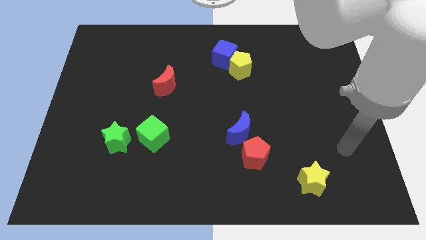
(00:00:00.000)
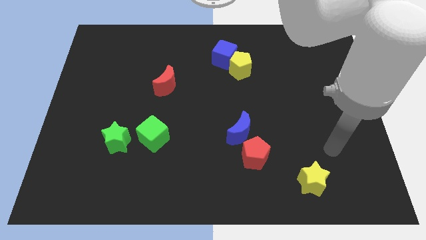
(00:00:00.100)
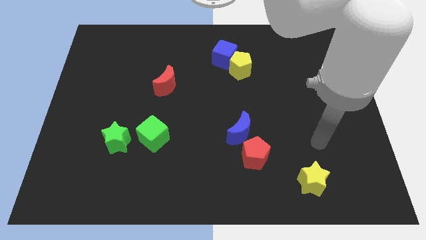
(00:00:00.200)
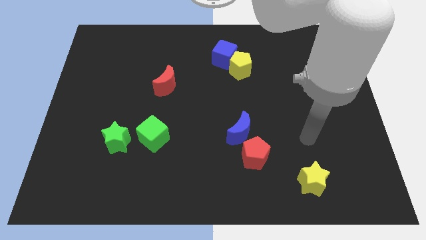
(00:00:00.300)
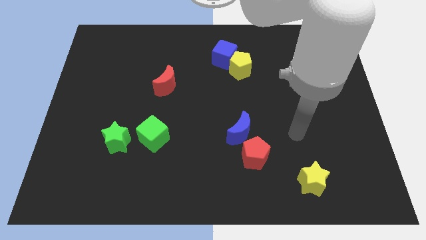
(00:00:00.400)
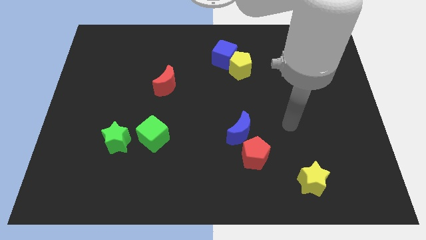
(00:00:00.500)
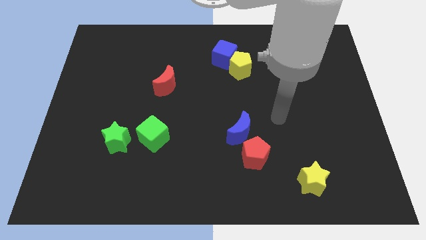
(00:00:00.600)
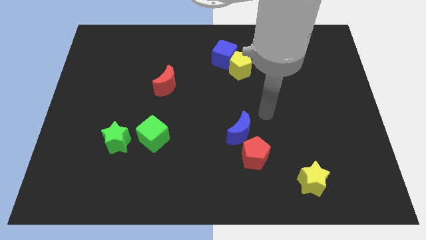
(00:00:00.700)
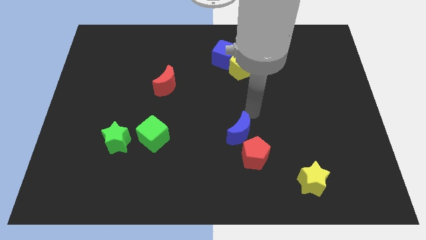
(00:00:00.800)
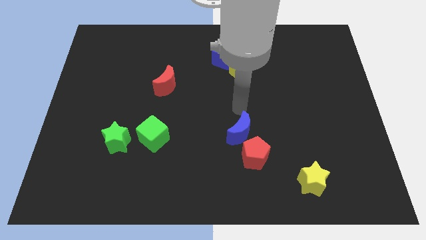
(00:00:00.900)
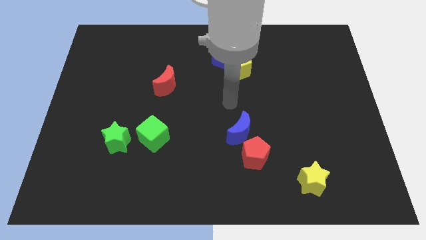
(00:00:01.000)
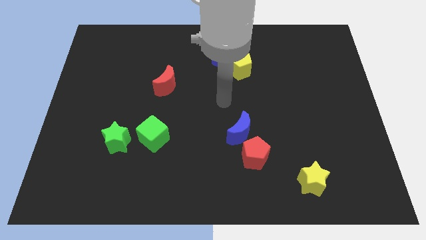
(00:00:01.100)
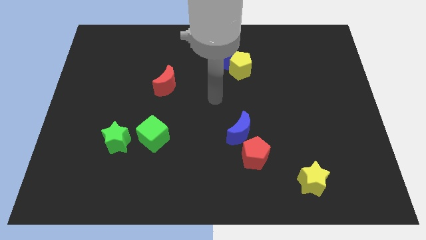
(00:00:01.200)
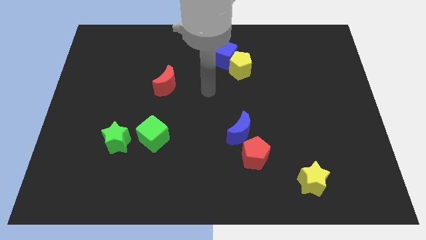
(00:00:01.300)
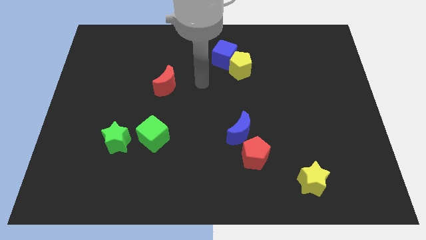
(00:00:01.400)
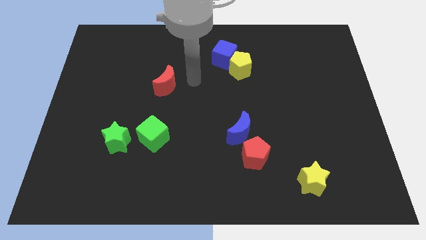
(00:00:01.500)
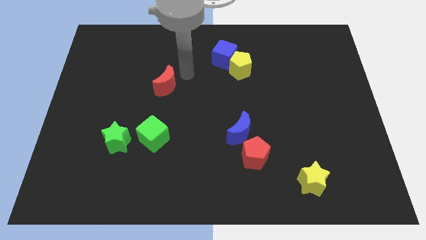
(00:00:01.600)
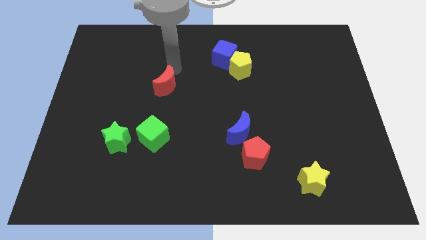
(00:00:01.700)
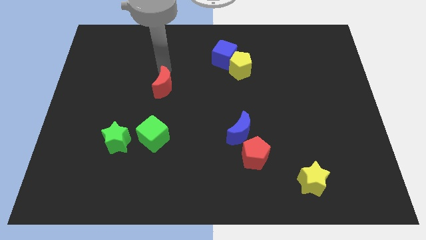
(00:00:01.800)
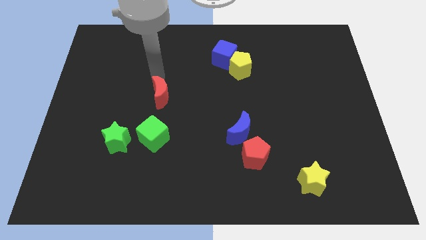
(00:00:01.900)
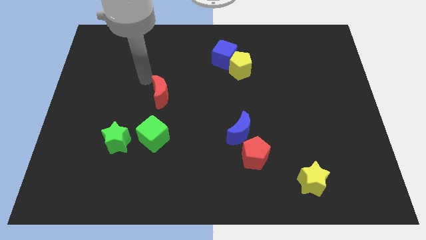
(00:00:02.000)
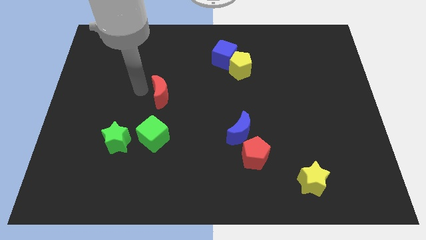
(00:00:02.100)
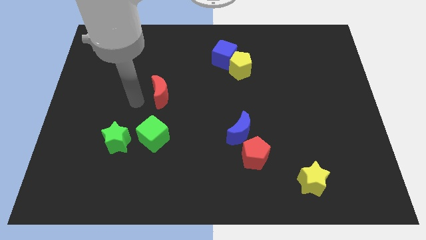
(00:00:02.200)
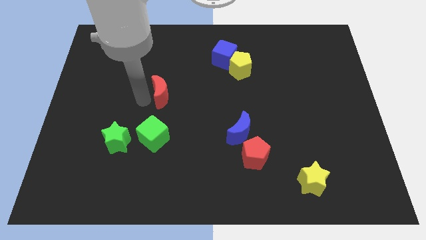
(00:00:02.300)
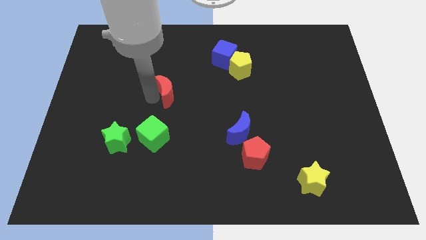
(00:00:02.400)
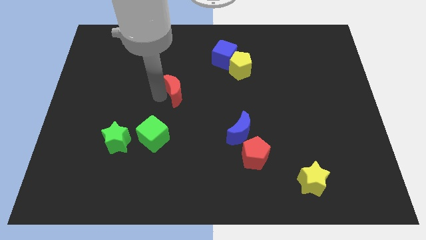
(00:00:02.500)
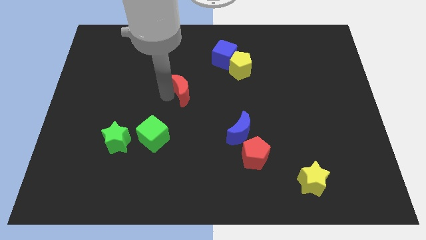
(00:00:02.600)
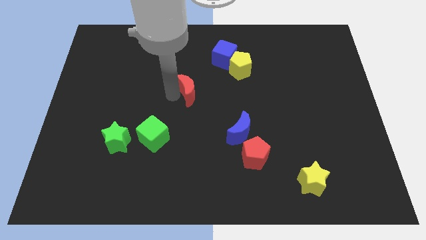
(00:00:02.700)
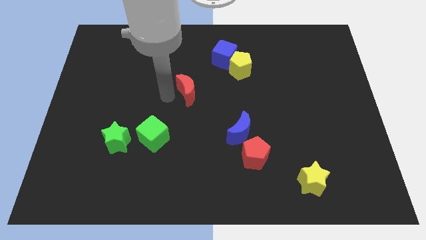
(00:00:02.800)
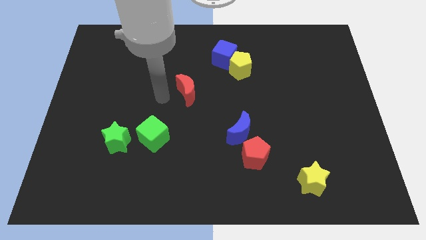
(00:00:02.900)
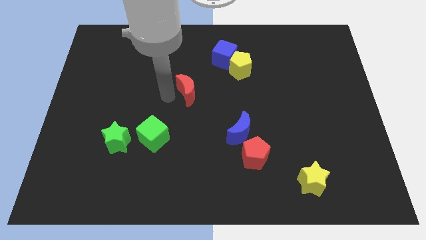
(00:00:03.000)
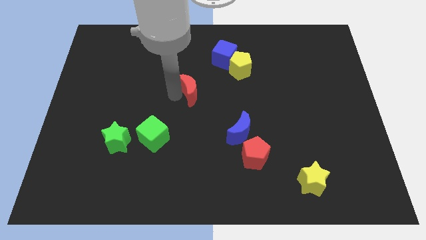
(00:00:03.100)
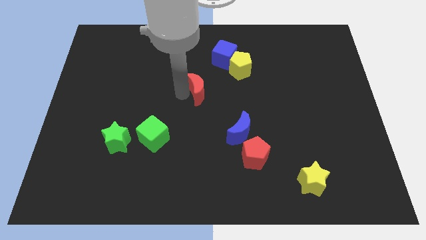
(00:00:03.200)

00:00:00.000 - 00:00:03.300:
slightly move the red moon right

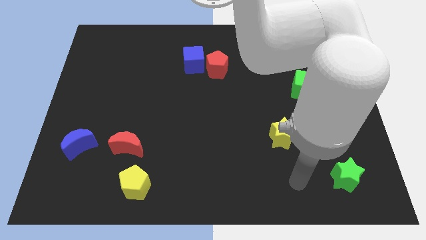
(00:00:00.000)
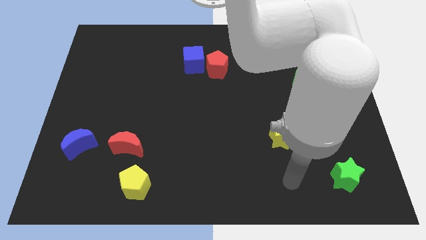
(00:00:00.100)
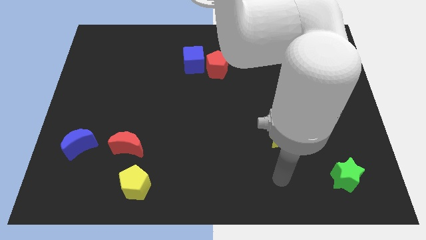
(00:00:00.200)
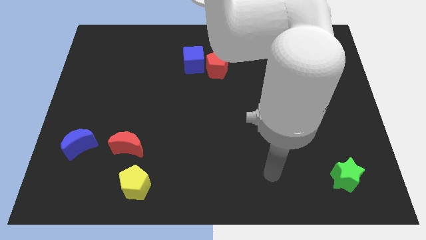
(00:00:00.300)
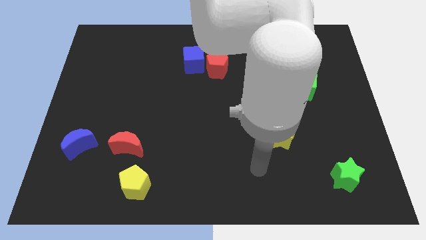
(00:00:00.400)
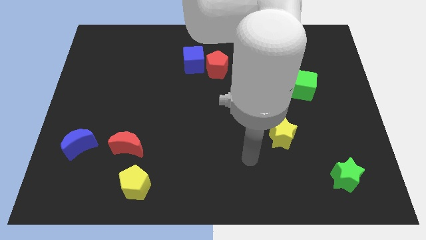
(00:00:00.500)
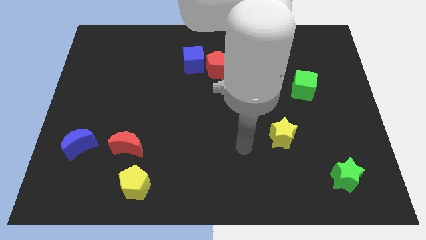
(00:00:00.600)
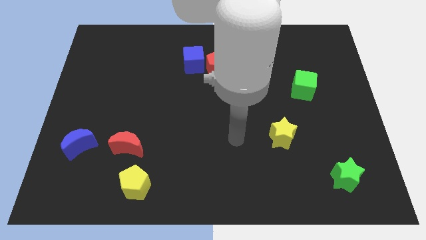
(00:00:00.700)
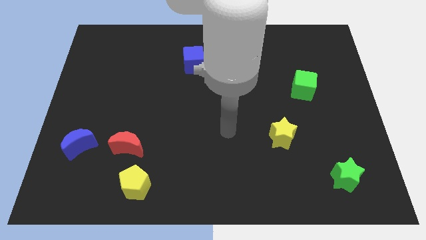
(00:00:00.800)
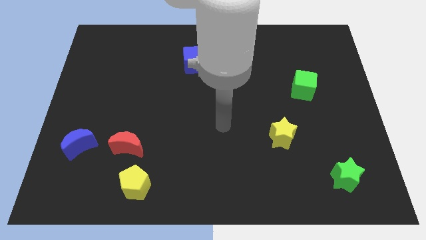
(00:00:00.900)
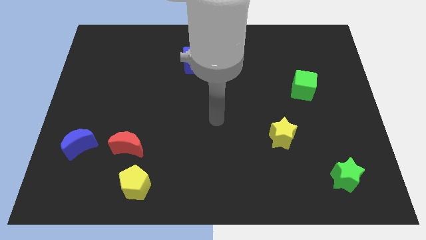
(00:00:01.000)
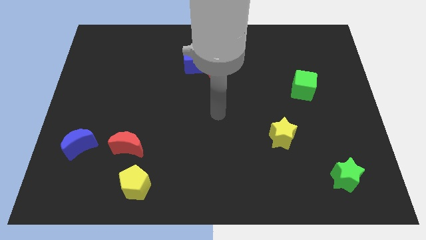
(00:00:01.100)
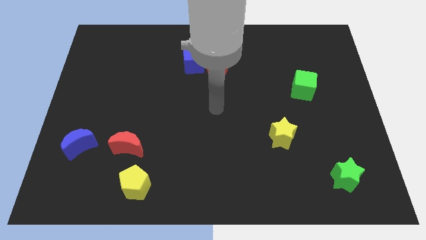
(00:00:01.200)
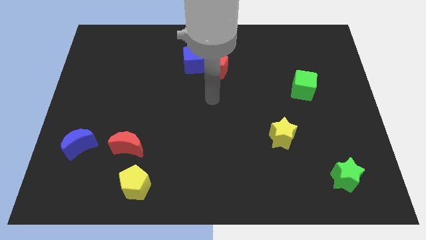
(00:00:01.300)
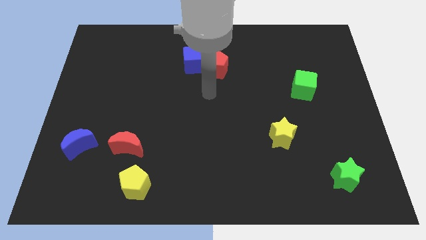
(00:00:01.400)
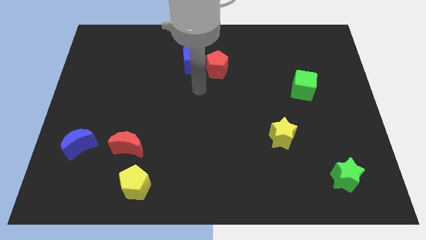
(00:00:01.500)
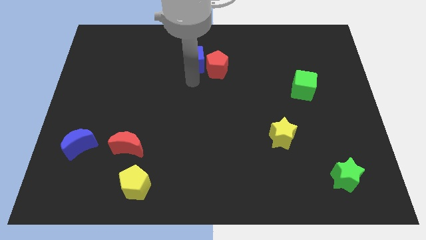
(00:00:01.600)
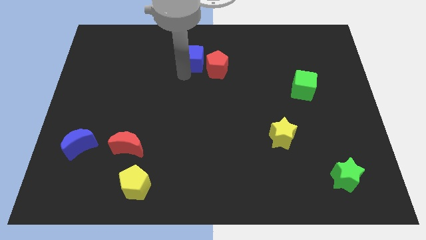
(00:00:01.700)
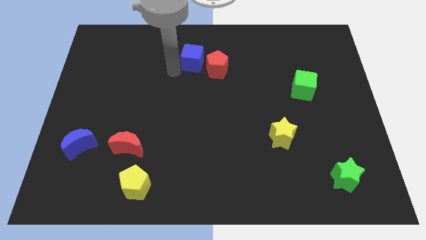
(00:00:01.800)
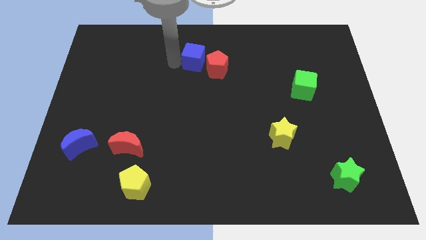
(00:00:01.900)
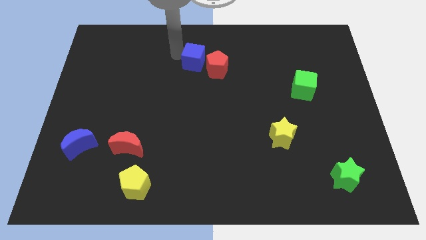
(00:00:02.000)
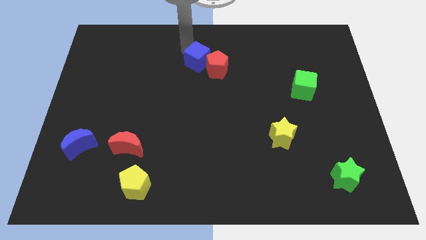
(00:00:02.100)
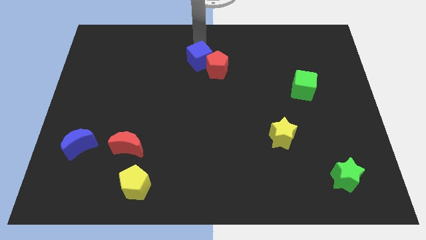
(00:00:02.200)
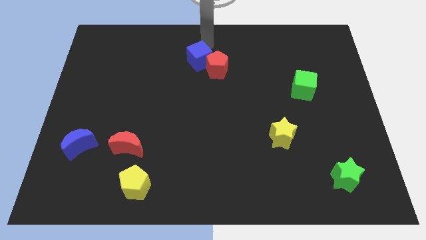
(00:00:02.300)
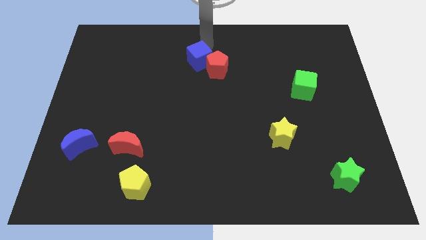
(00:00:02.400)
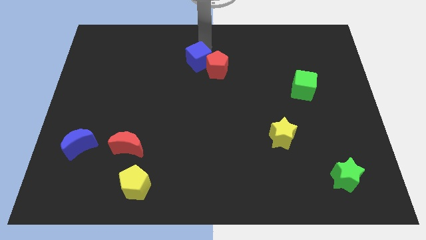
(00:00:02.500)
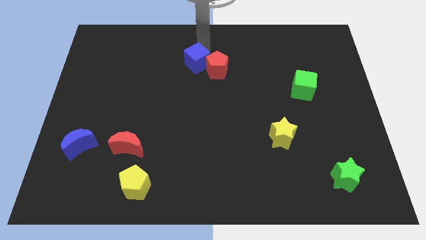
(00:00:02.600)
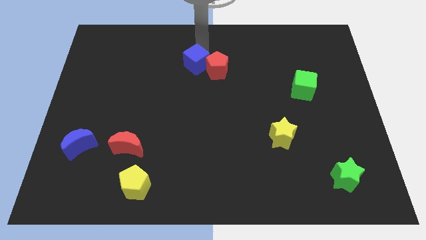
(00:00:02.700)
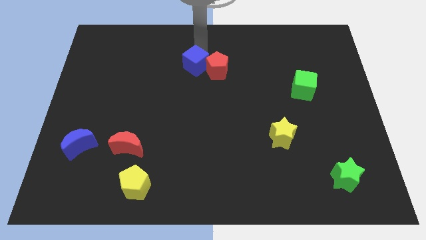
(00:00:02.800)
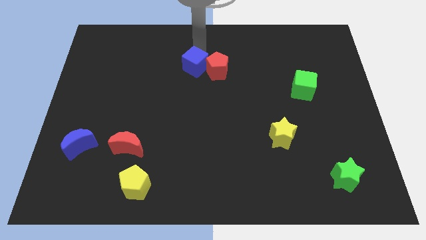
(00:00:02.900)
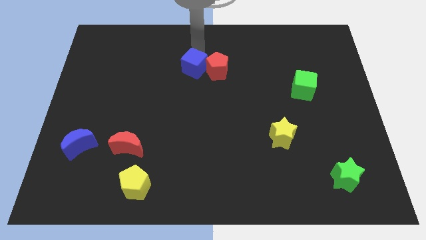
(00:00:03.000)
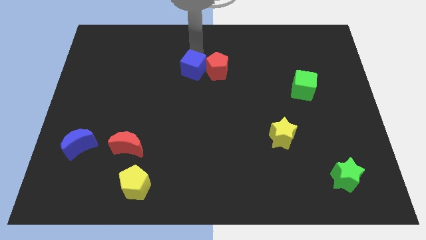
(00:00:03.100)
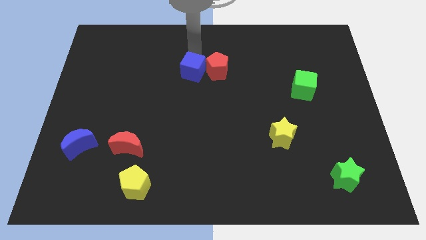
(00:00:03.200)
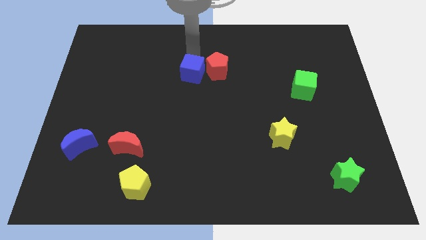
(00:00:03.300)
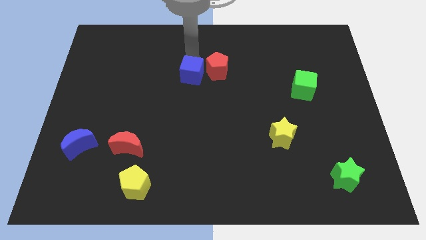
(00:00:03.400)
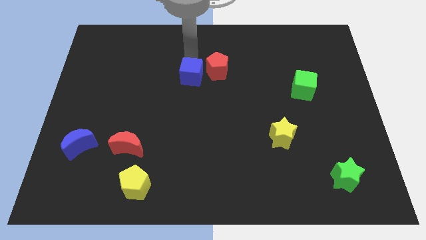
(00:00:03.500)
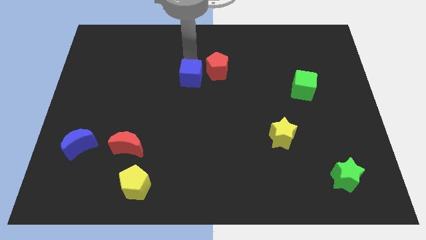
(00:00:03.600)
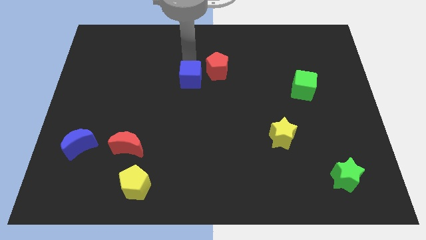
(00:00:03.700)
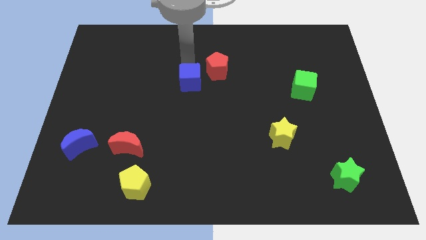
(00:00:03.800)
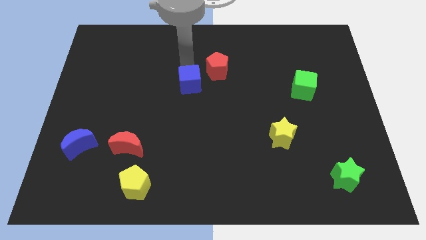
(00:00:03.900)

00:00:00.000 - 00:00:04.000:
push the blue cube a bit down

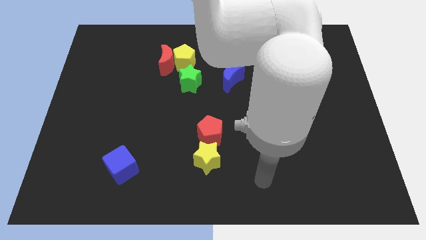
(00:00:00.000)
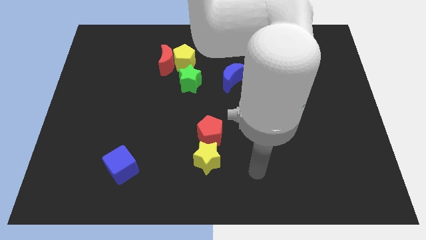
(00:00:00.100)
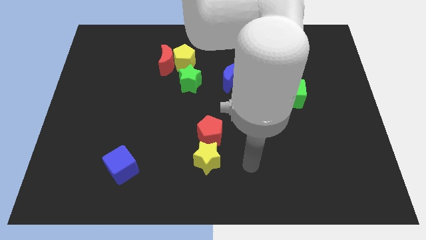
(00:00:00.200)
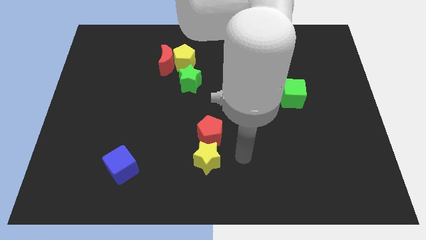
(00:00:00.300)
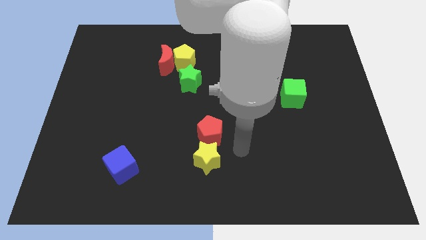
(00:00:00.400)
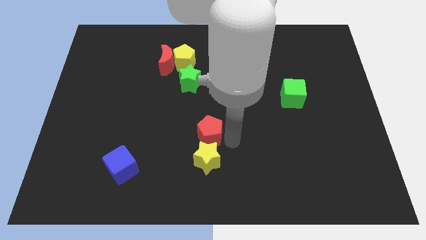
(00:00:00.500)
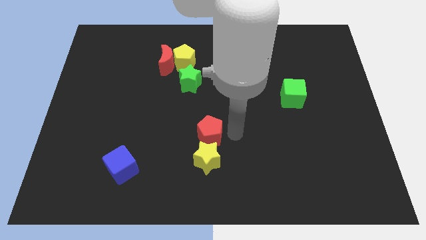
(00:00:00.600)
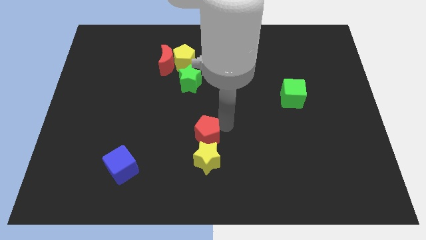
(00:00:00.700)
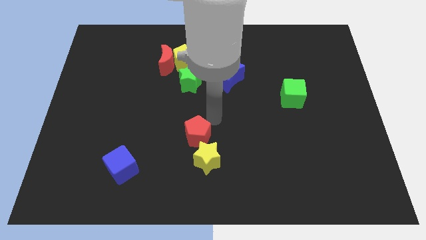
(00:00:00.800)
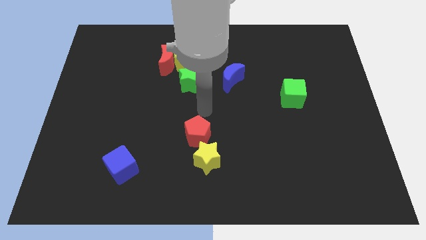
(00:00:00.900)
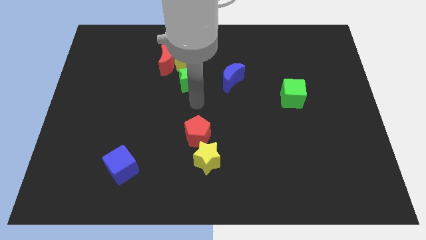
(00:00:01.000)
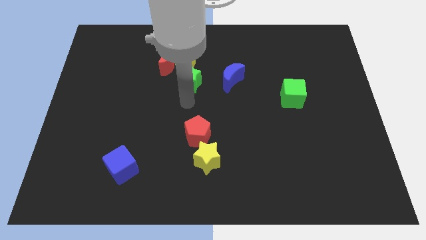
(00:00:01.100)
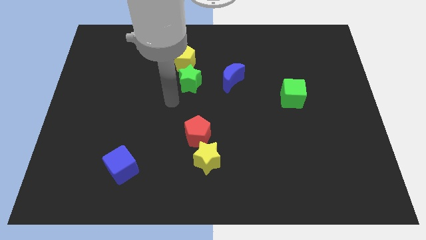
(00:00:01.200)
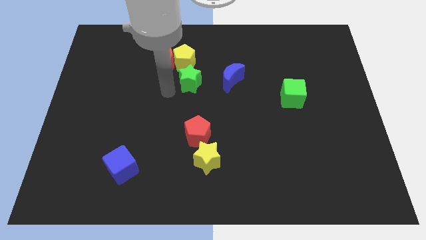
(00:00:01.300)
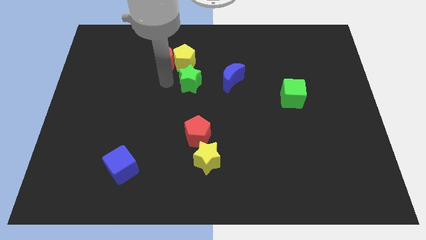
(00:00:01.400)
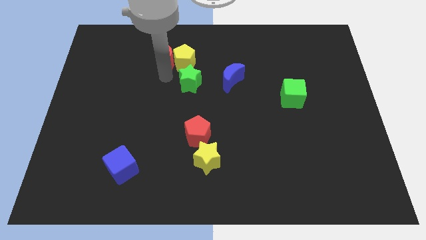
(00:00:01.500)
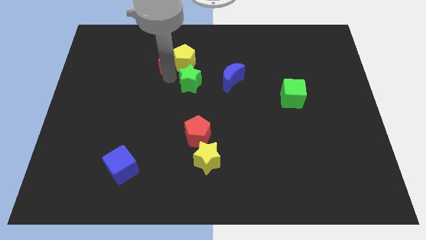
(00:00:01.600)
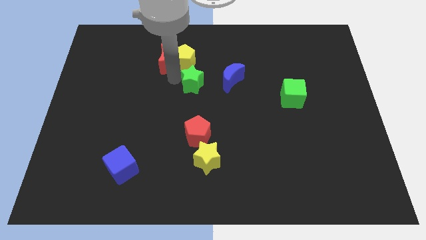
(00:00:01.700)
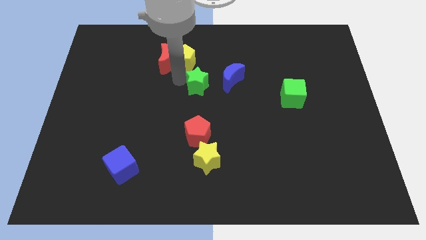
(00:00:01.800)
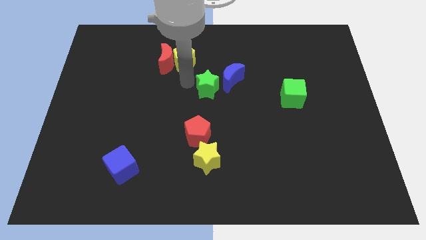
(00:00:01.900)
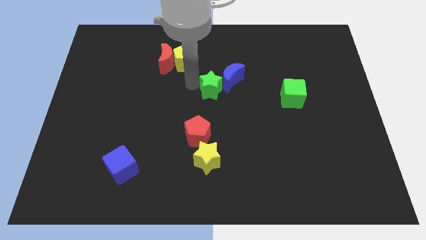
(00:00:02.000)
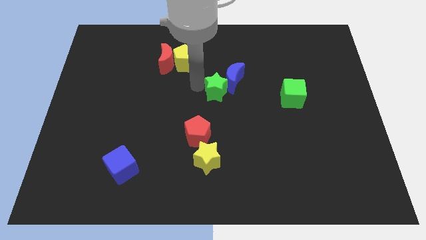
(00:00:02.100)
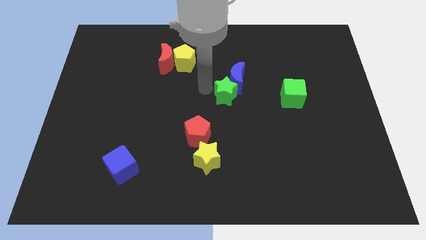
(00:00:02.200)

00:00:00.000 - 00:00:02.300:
slide the green star right a little
